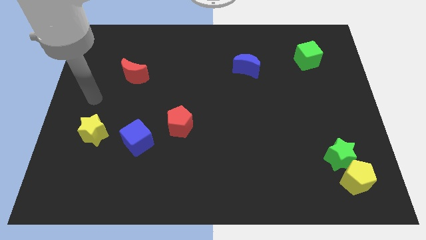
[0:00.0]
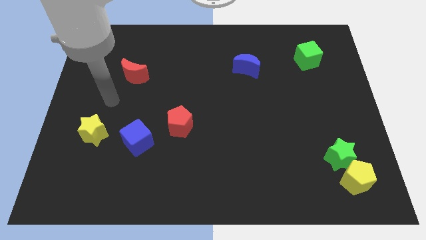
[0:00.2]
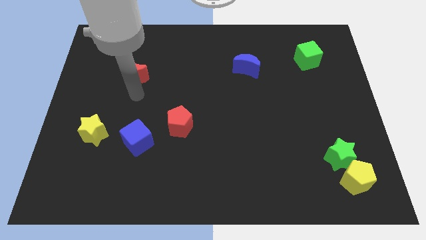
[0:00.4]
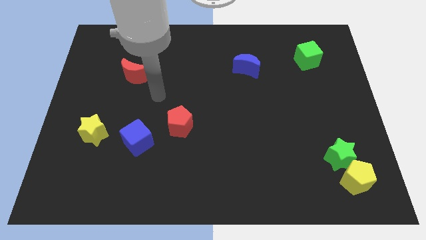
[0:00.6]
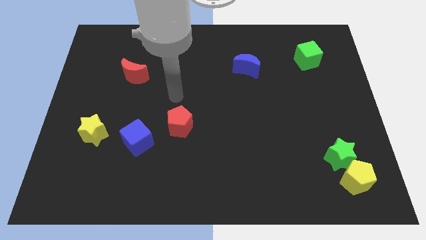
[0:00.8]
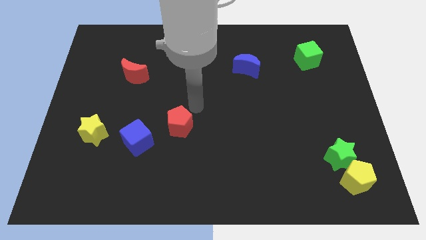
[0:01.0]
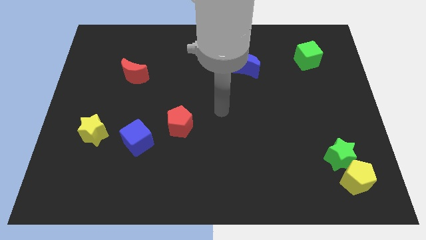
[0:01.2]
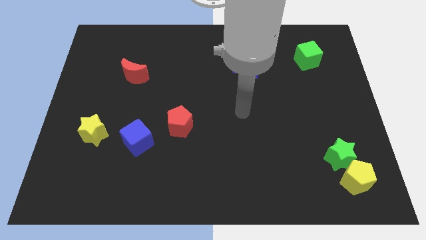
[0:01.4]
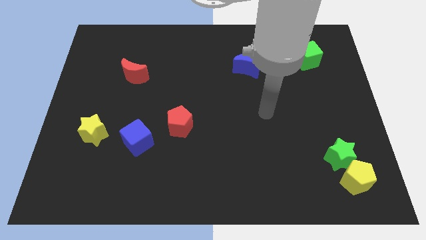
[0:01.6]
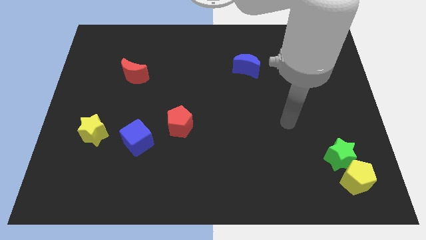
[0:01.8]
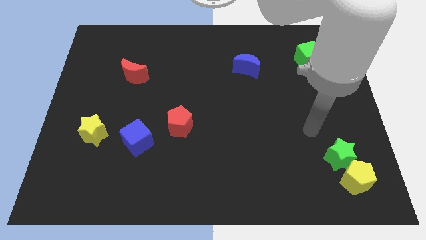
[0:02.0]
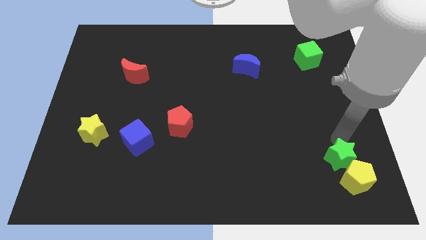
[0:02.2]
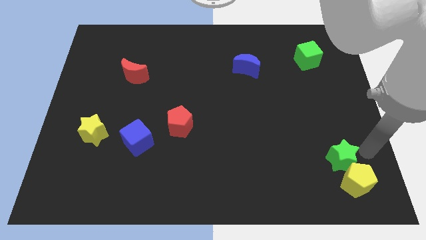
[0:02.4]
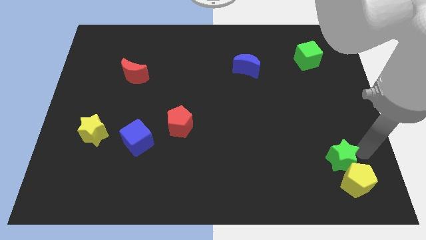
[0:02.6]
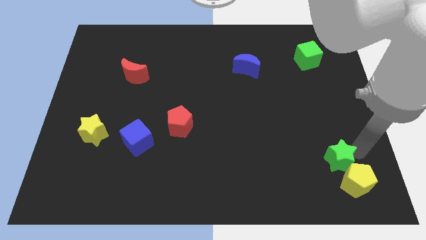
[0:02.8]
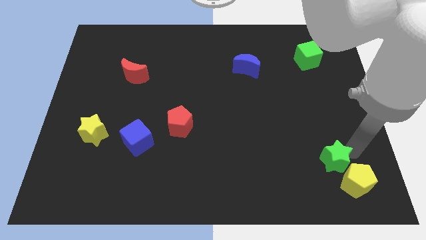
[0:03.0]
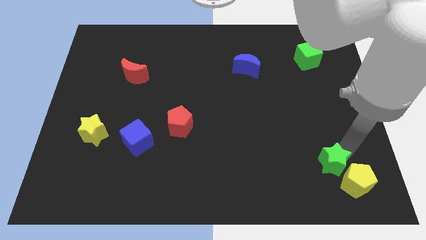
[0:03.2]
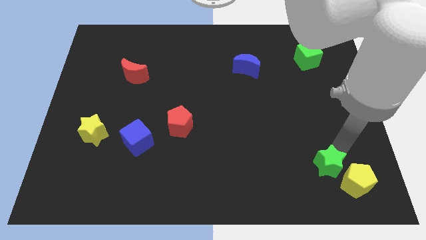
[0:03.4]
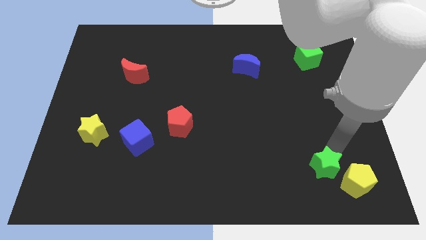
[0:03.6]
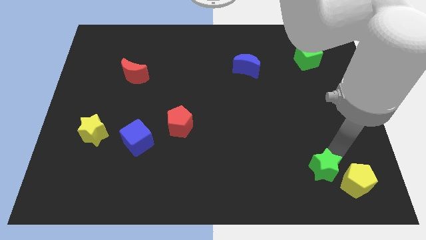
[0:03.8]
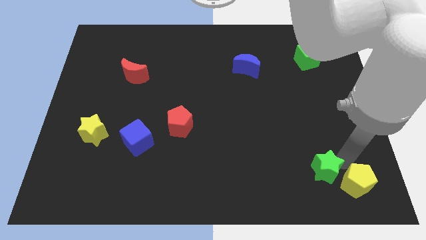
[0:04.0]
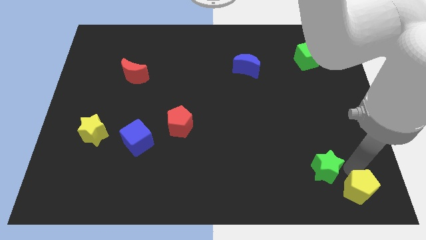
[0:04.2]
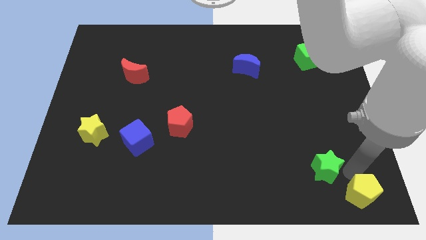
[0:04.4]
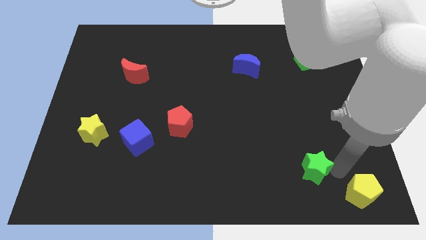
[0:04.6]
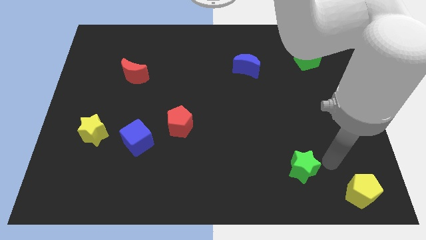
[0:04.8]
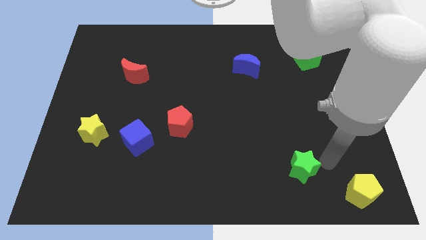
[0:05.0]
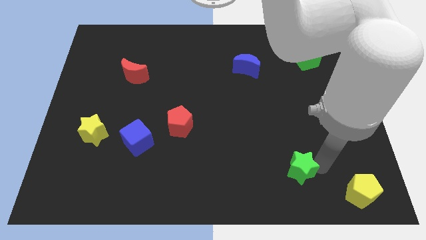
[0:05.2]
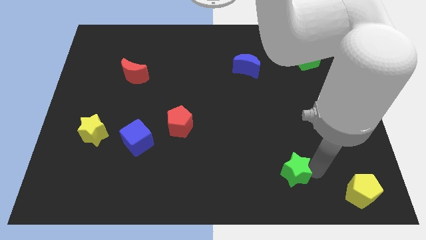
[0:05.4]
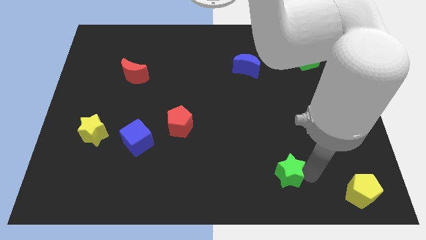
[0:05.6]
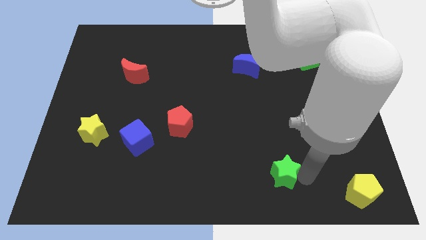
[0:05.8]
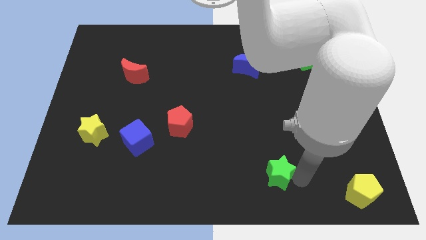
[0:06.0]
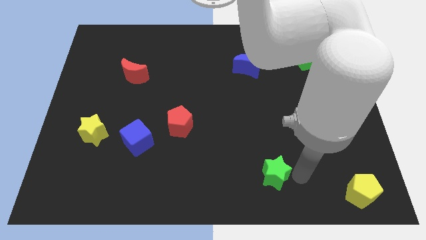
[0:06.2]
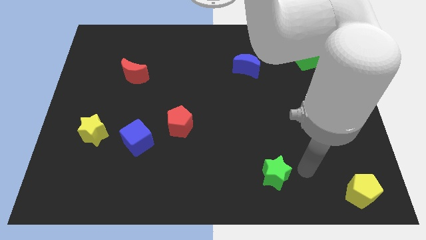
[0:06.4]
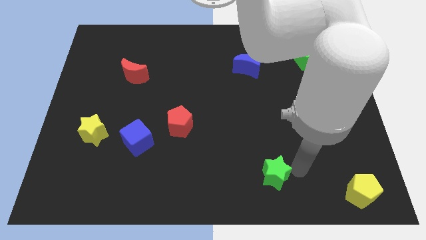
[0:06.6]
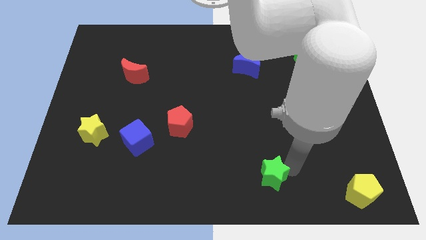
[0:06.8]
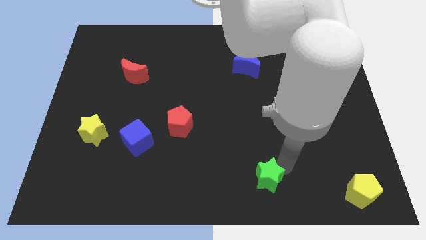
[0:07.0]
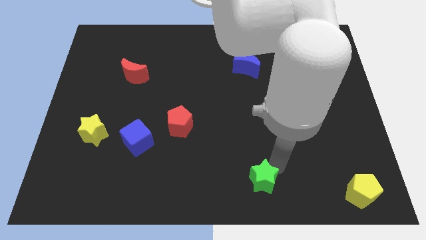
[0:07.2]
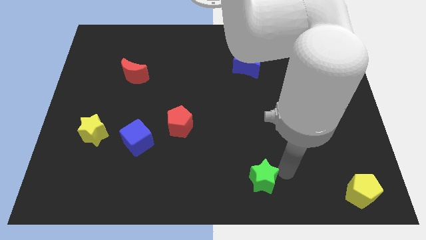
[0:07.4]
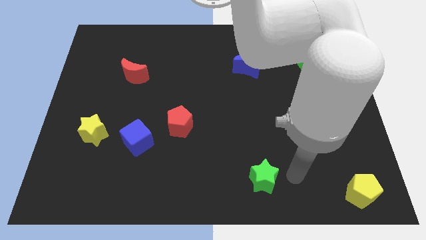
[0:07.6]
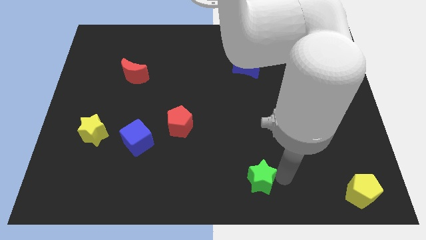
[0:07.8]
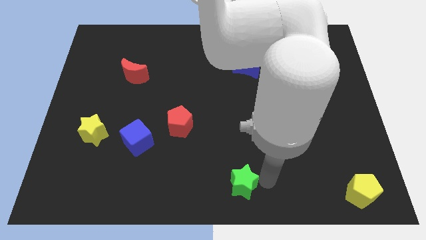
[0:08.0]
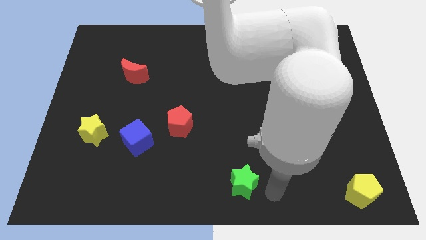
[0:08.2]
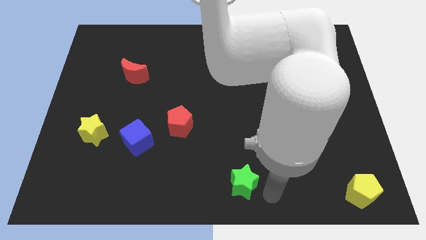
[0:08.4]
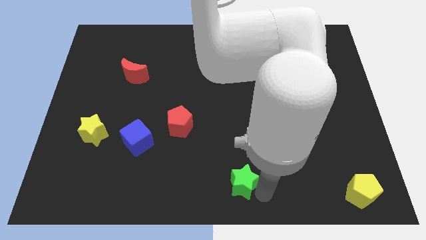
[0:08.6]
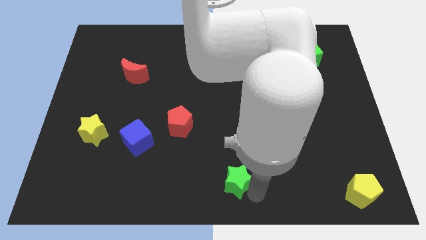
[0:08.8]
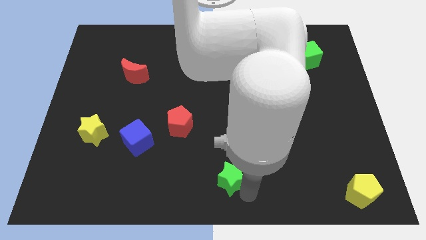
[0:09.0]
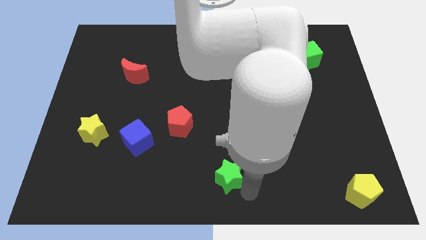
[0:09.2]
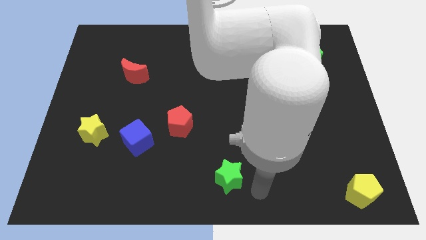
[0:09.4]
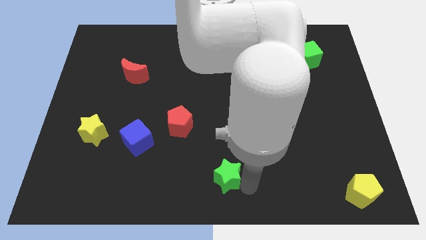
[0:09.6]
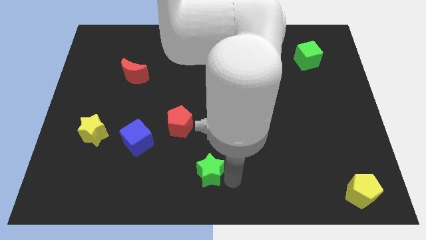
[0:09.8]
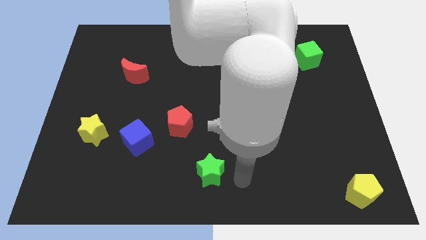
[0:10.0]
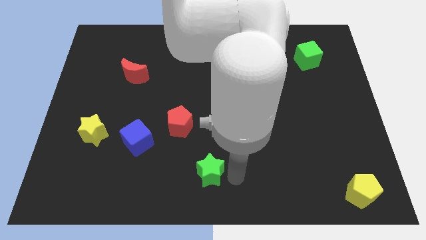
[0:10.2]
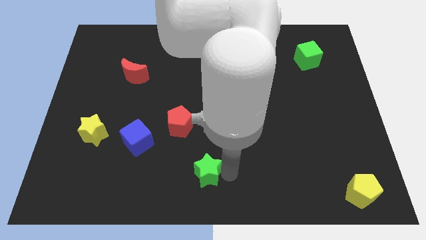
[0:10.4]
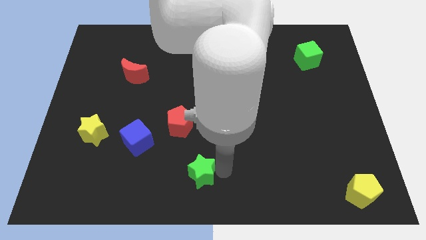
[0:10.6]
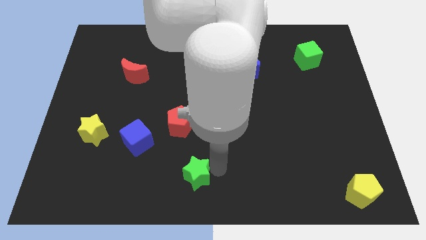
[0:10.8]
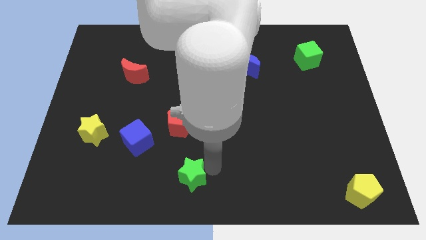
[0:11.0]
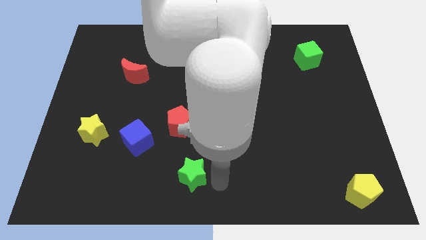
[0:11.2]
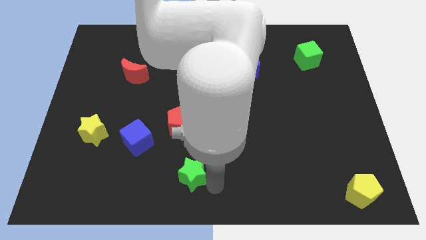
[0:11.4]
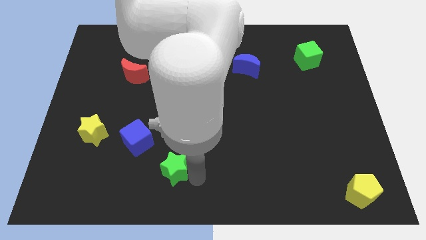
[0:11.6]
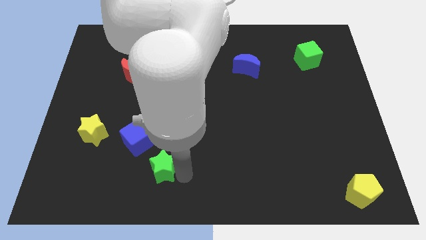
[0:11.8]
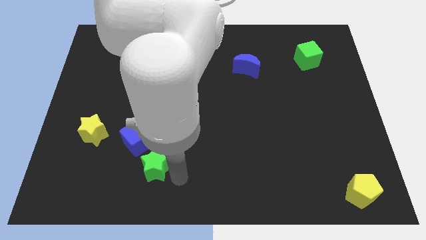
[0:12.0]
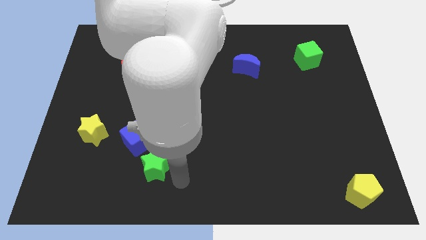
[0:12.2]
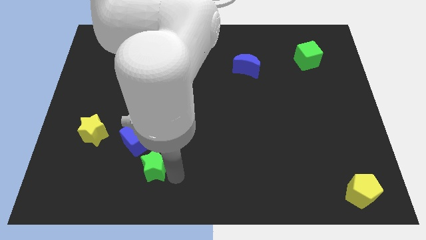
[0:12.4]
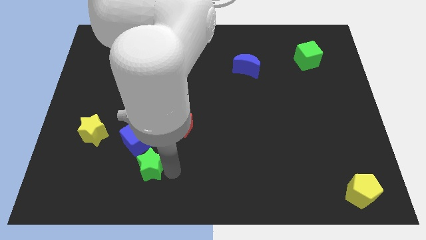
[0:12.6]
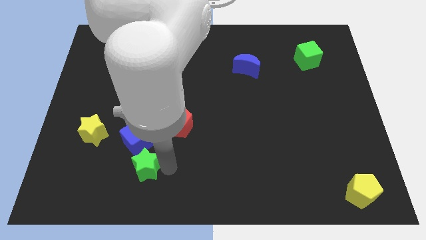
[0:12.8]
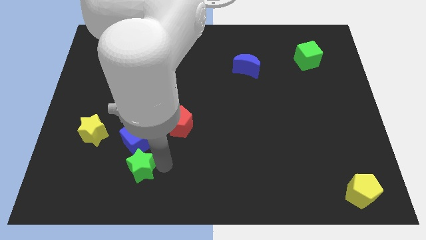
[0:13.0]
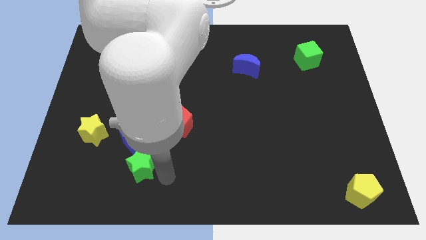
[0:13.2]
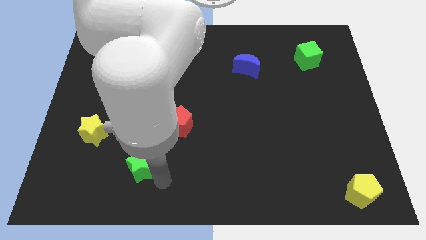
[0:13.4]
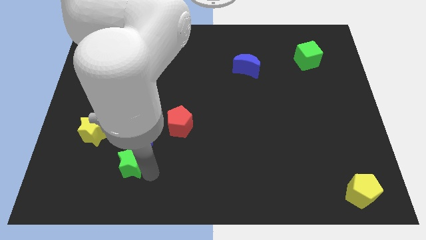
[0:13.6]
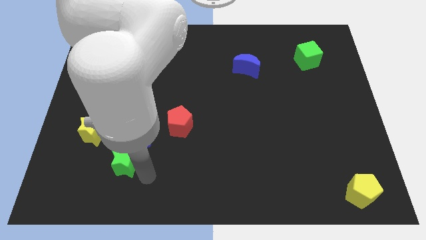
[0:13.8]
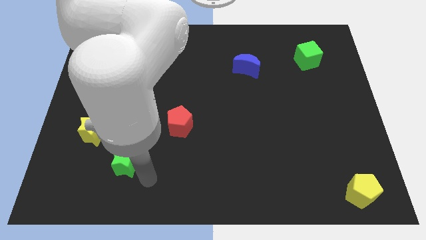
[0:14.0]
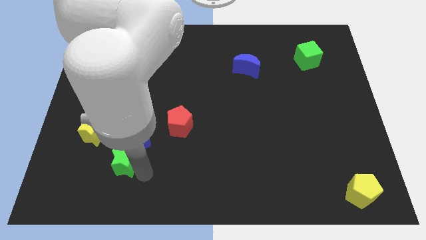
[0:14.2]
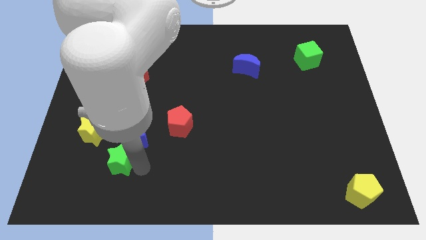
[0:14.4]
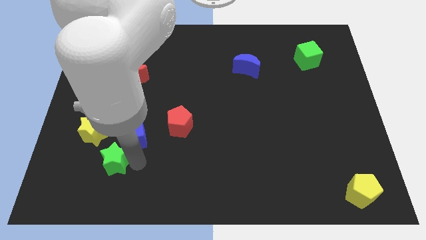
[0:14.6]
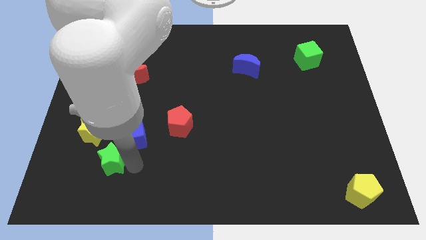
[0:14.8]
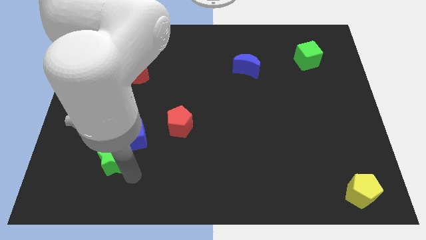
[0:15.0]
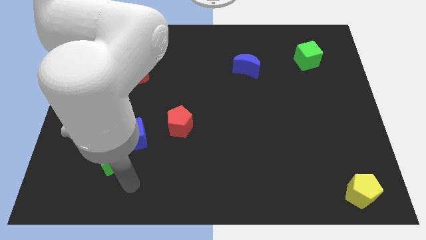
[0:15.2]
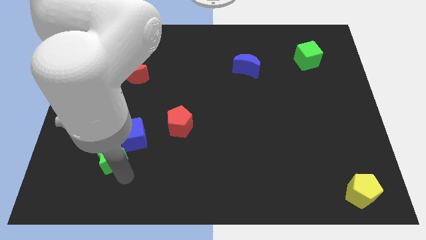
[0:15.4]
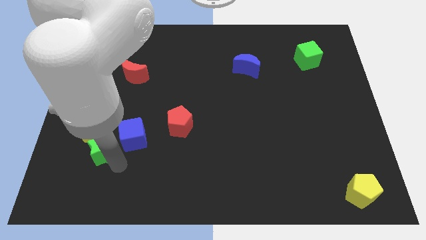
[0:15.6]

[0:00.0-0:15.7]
push the green star just left of the blue cube
